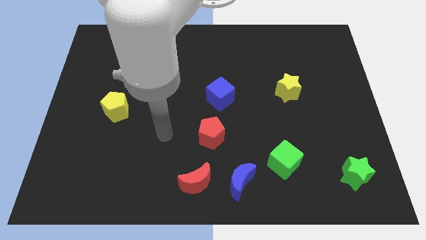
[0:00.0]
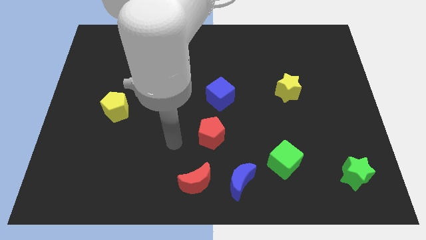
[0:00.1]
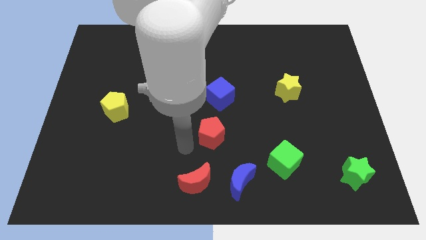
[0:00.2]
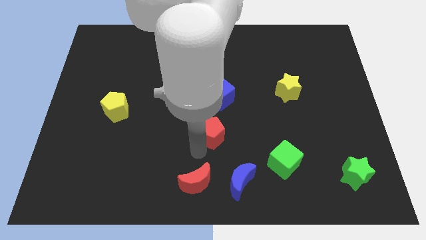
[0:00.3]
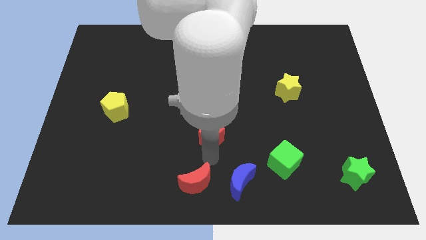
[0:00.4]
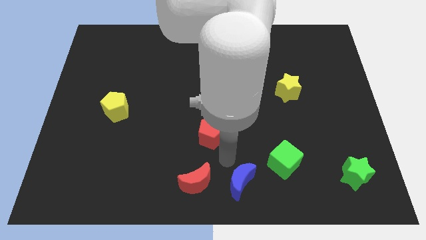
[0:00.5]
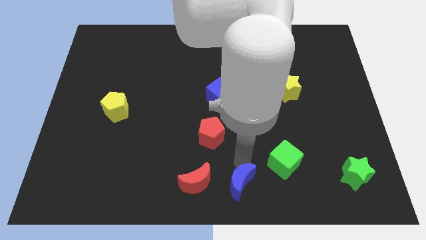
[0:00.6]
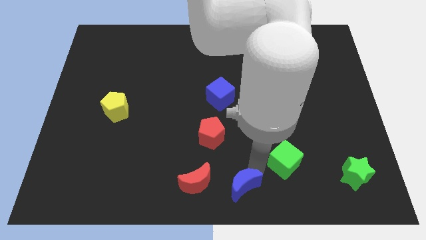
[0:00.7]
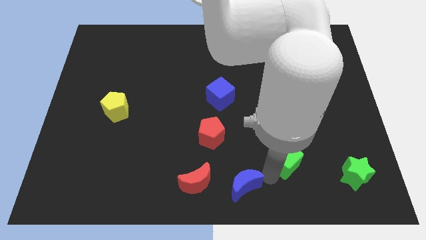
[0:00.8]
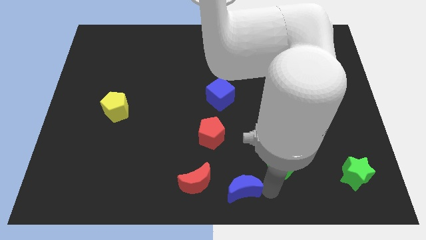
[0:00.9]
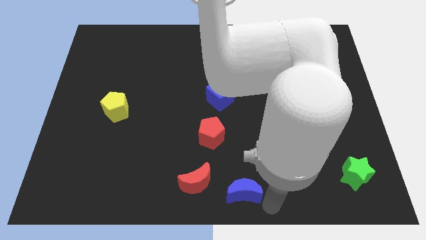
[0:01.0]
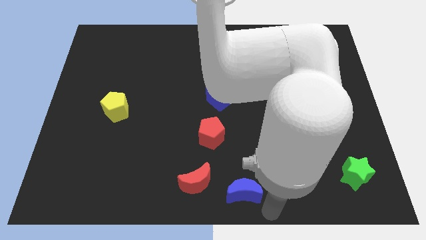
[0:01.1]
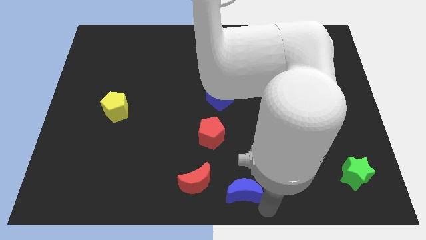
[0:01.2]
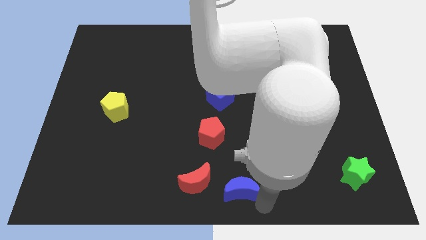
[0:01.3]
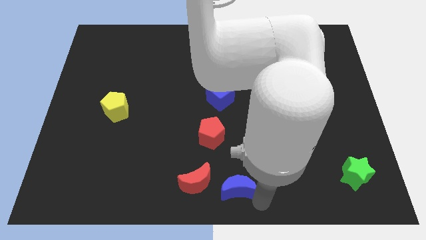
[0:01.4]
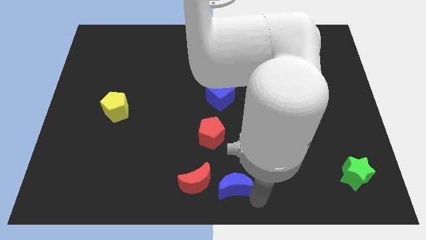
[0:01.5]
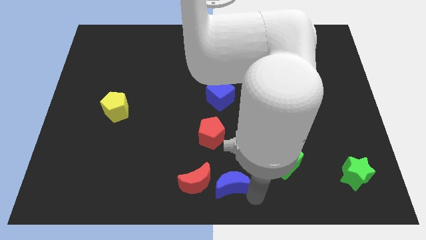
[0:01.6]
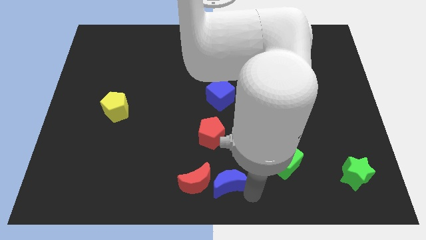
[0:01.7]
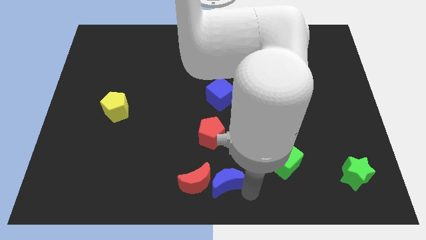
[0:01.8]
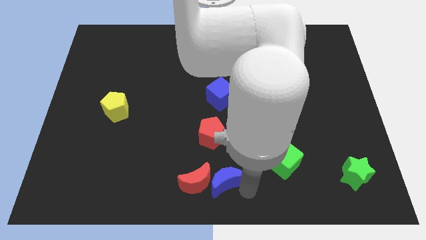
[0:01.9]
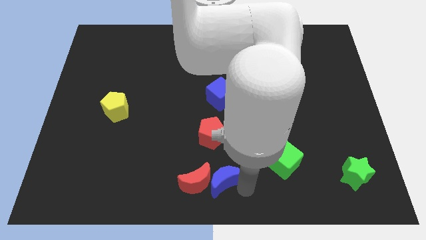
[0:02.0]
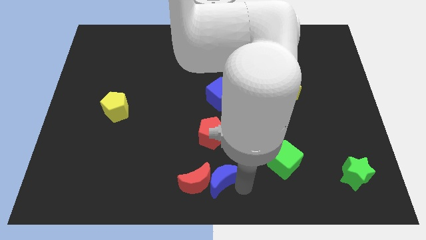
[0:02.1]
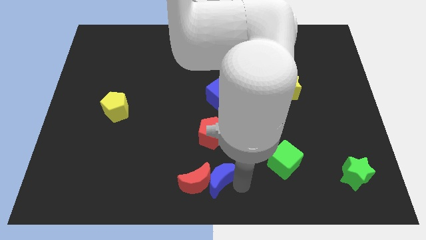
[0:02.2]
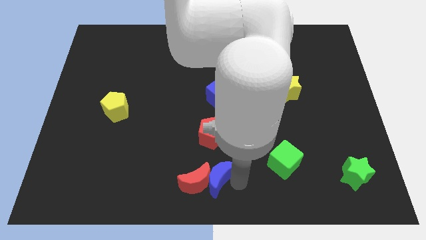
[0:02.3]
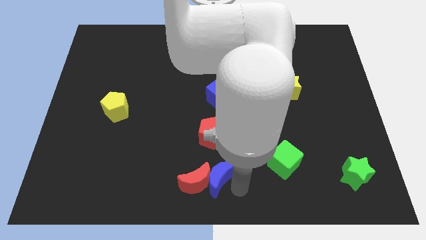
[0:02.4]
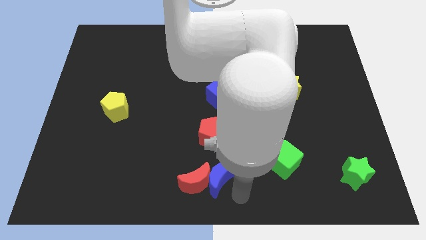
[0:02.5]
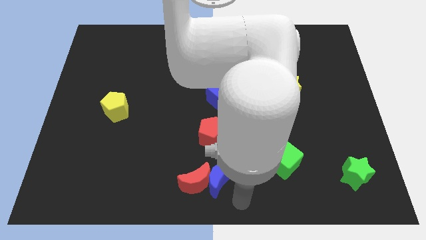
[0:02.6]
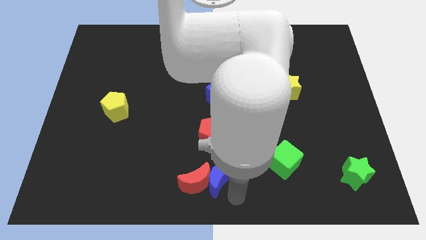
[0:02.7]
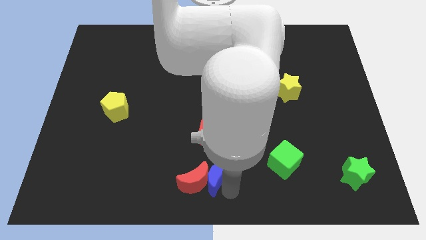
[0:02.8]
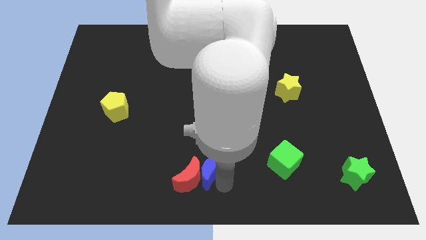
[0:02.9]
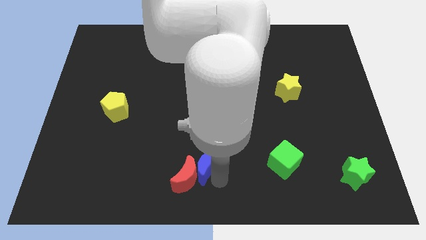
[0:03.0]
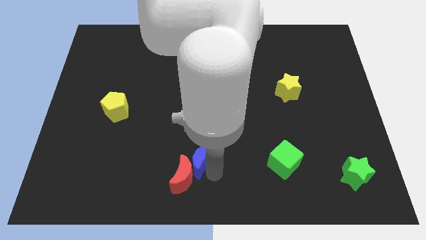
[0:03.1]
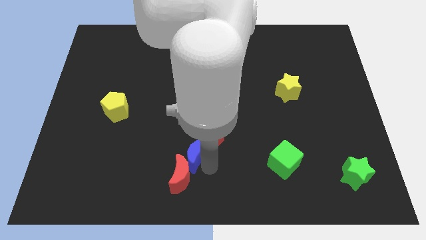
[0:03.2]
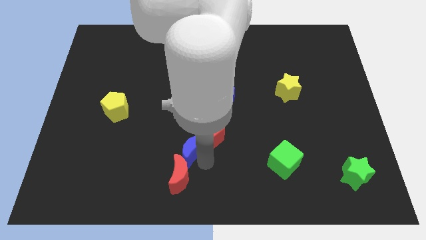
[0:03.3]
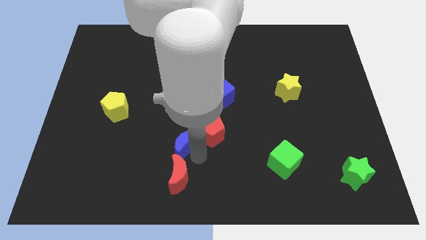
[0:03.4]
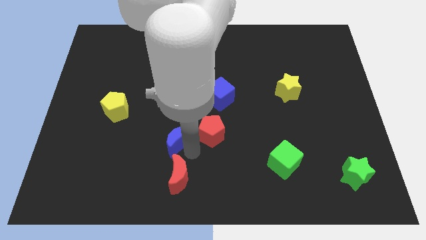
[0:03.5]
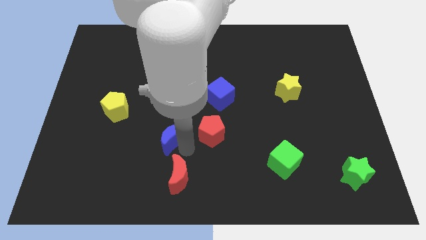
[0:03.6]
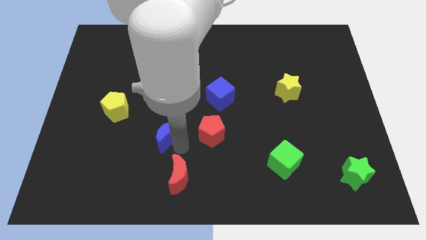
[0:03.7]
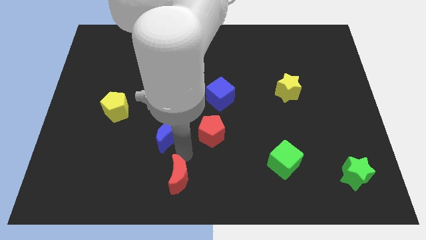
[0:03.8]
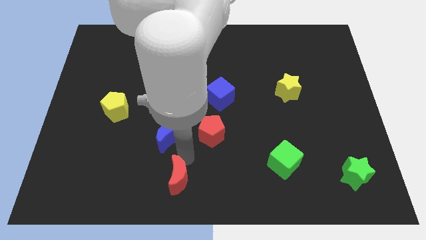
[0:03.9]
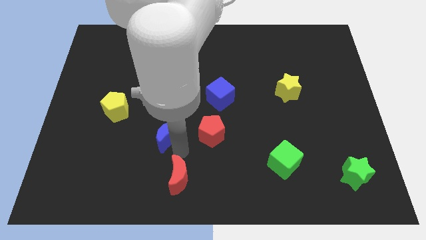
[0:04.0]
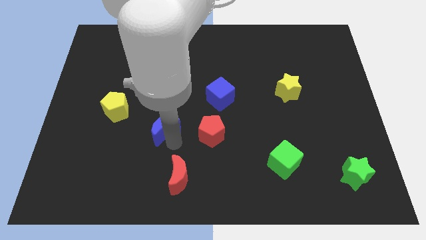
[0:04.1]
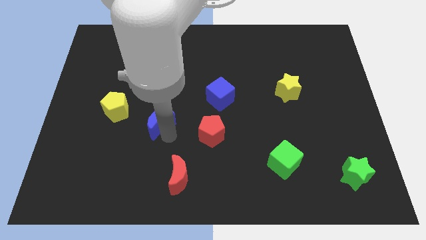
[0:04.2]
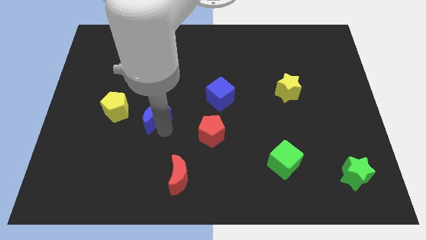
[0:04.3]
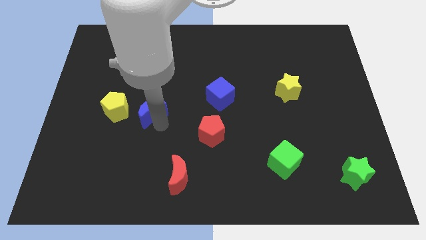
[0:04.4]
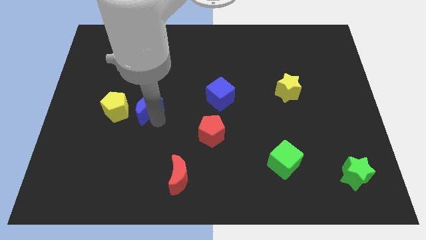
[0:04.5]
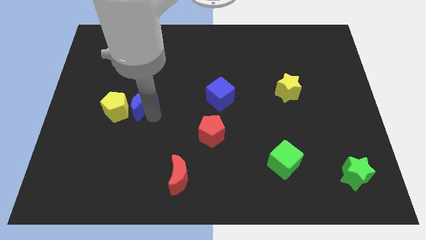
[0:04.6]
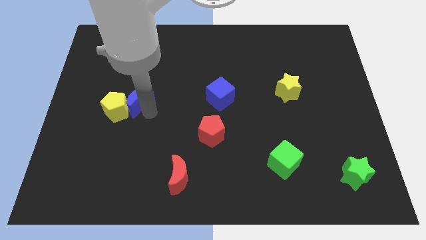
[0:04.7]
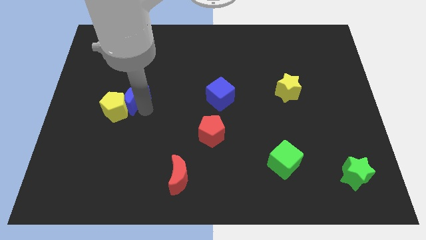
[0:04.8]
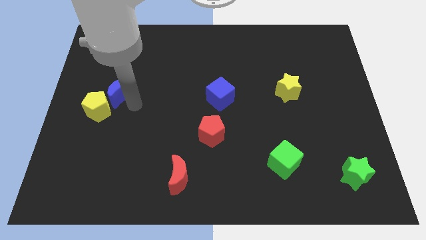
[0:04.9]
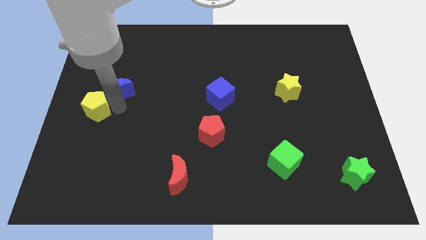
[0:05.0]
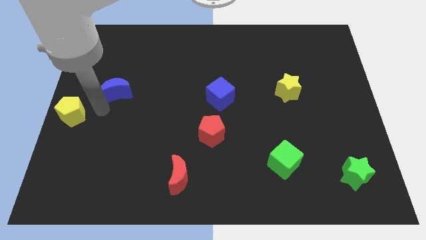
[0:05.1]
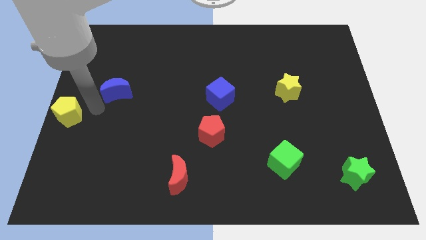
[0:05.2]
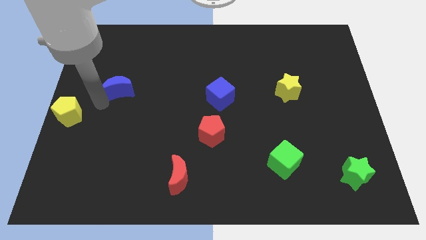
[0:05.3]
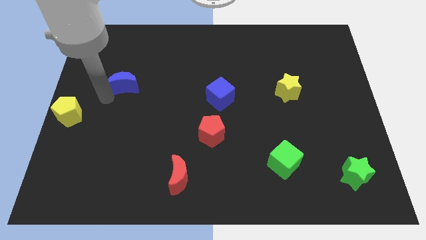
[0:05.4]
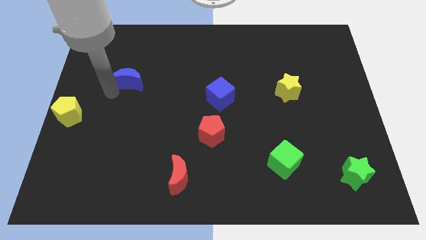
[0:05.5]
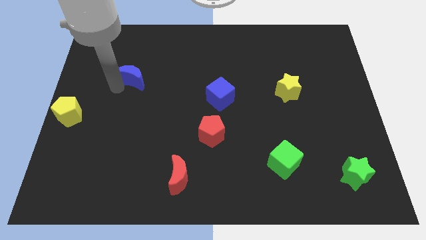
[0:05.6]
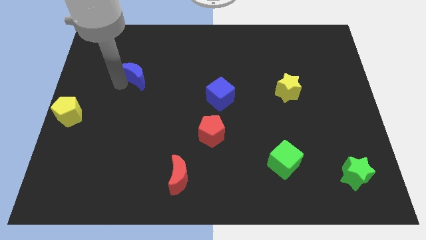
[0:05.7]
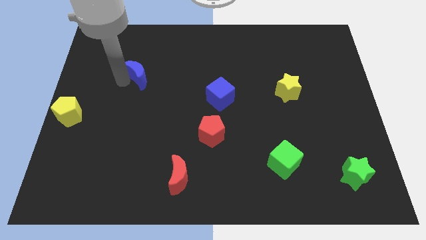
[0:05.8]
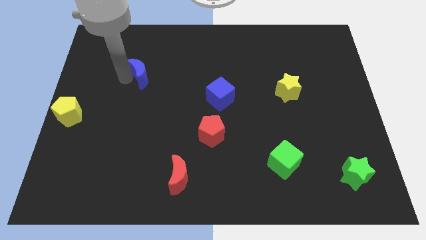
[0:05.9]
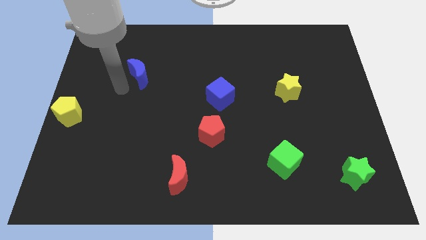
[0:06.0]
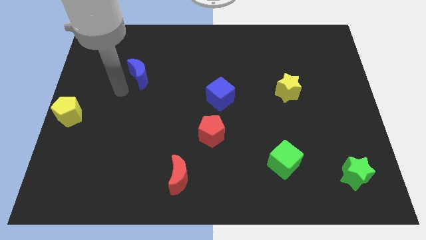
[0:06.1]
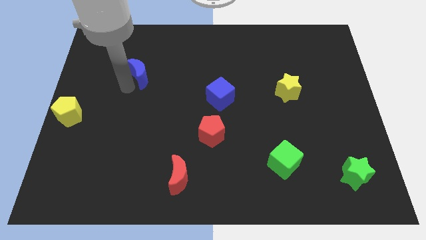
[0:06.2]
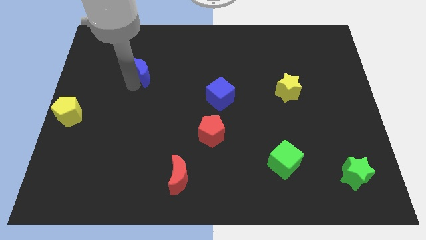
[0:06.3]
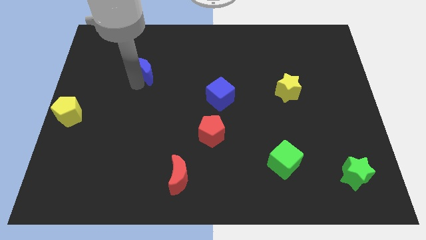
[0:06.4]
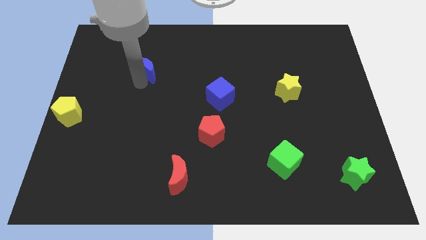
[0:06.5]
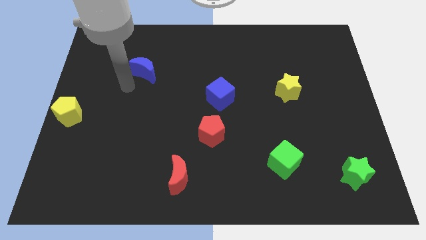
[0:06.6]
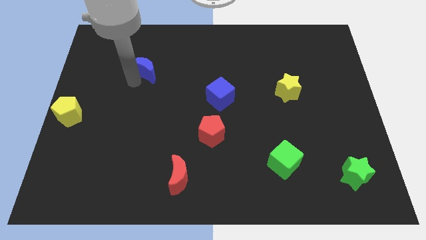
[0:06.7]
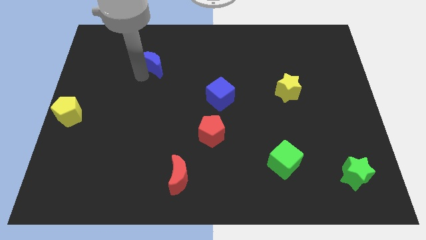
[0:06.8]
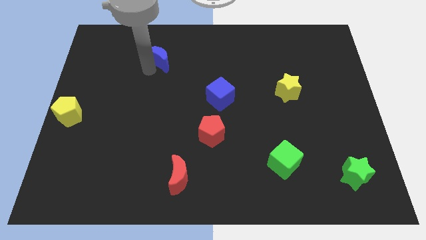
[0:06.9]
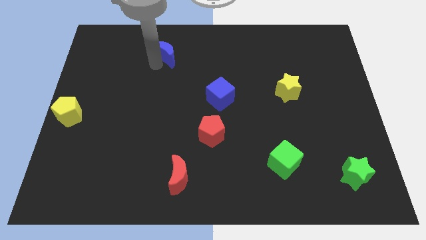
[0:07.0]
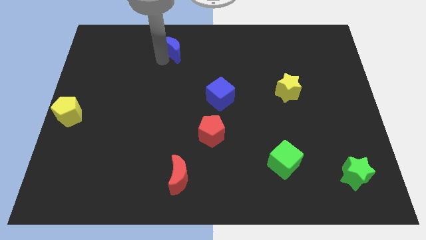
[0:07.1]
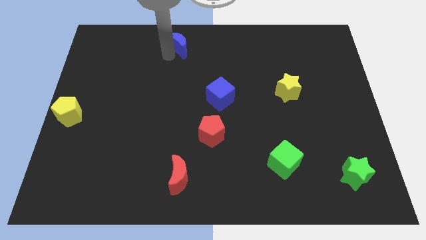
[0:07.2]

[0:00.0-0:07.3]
push the blue moon to the top side
